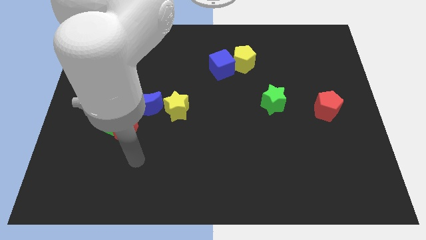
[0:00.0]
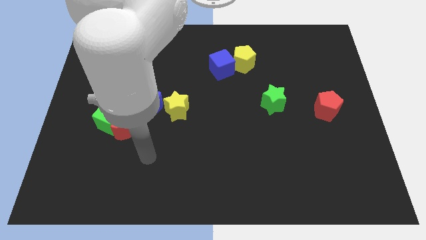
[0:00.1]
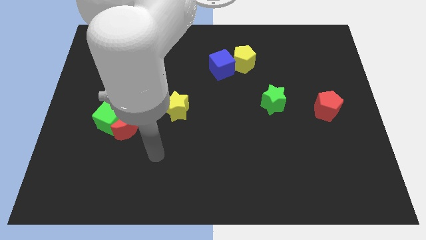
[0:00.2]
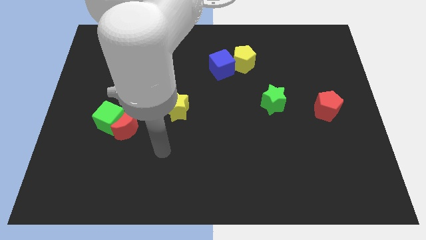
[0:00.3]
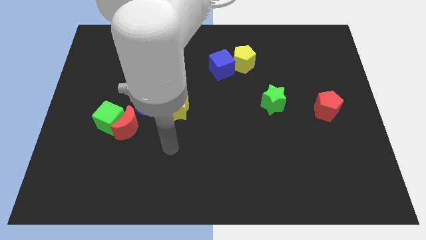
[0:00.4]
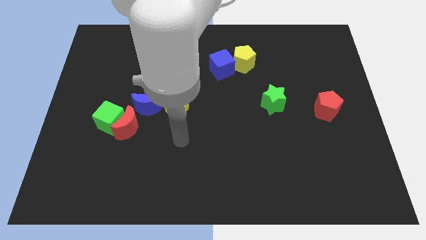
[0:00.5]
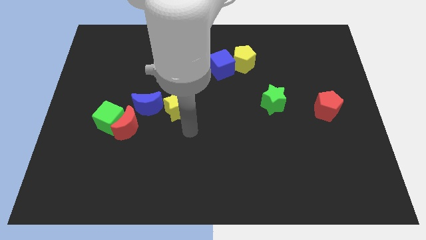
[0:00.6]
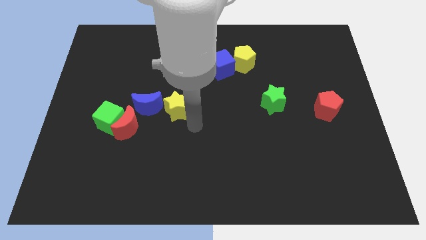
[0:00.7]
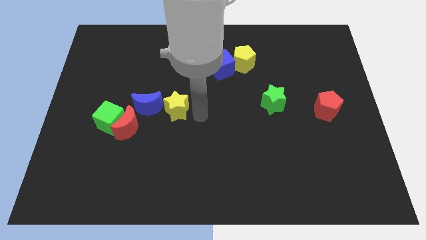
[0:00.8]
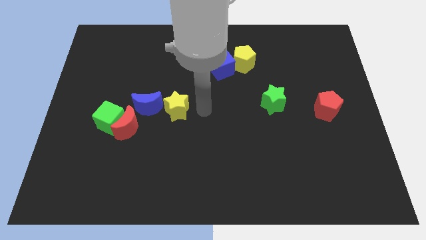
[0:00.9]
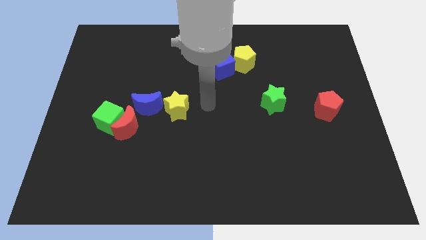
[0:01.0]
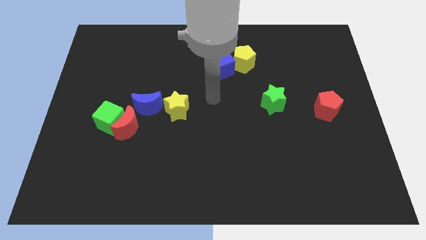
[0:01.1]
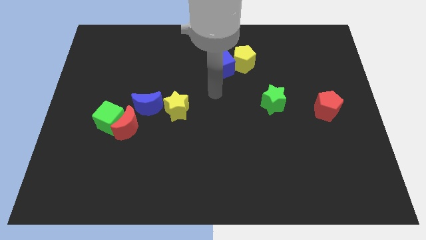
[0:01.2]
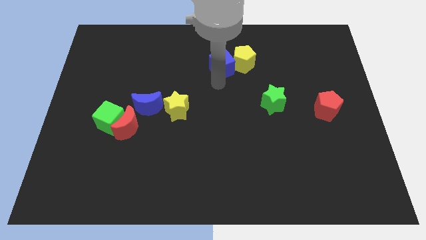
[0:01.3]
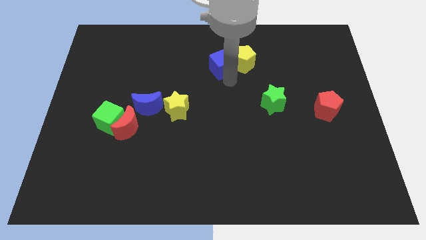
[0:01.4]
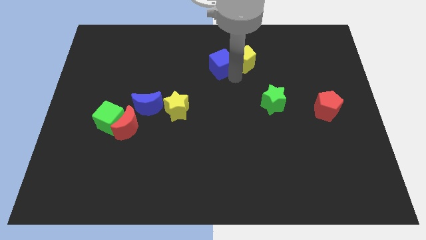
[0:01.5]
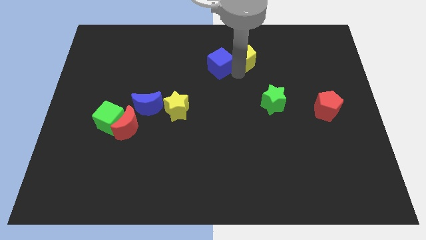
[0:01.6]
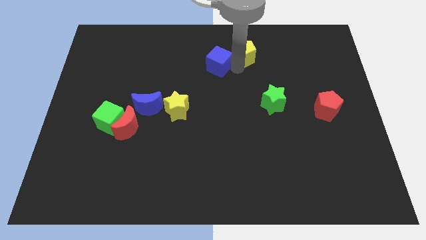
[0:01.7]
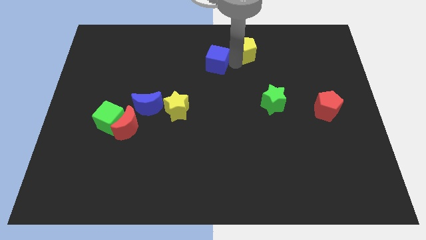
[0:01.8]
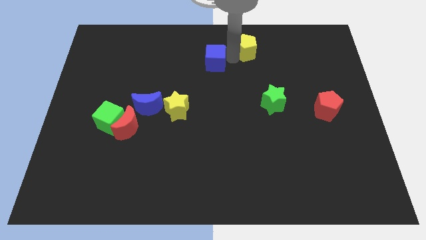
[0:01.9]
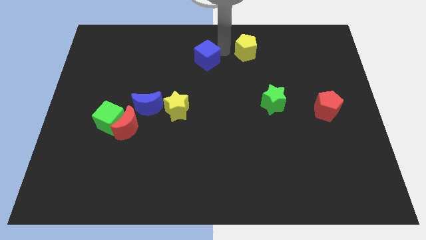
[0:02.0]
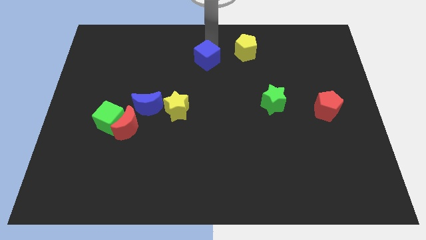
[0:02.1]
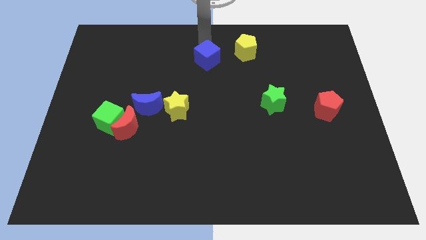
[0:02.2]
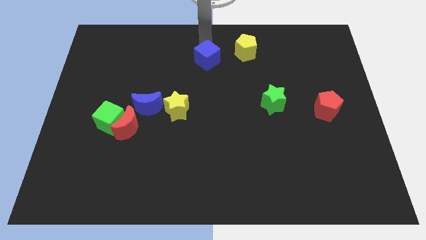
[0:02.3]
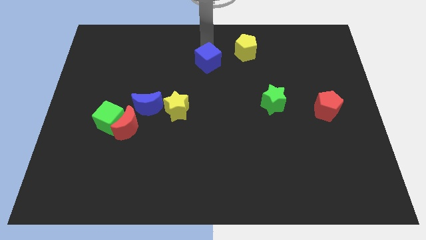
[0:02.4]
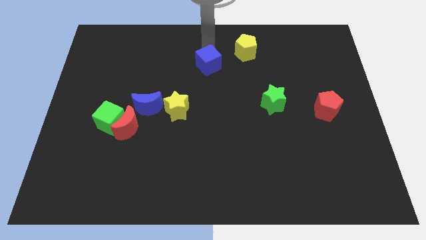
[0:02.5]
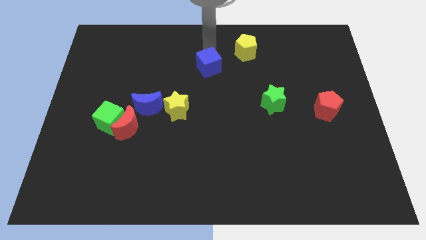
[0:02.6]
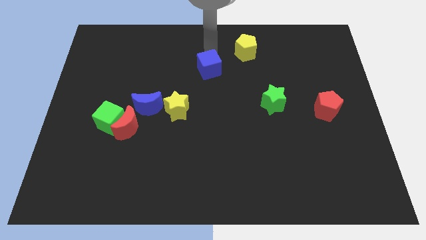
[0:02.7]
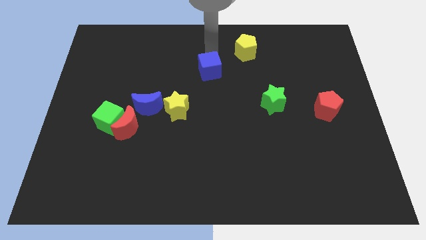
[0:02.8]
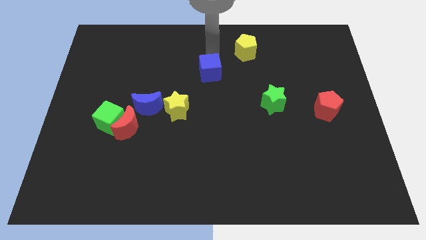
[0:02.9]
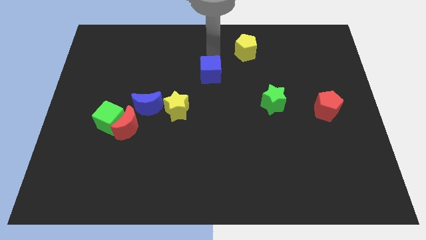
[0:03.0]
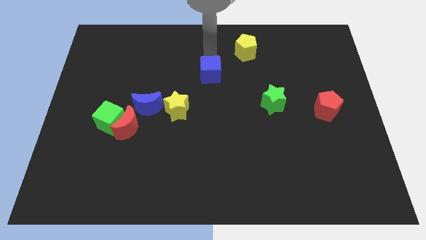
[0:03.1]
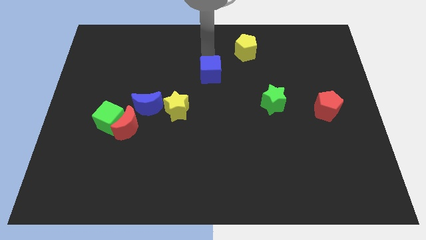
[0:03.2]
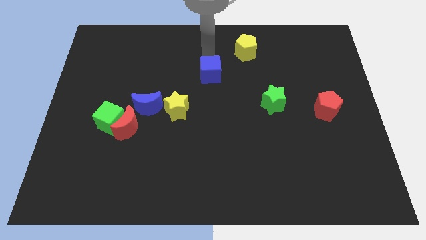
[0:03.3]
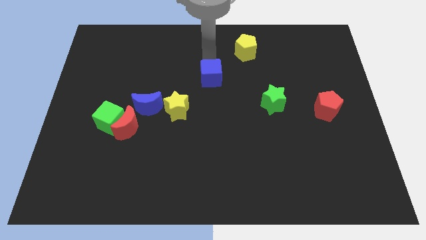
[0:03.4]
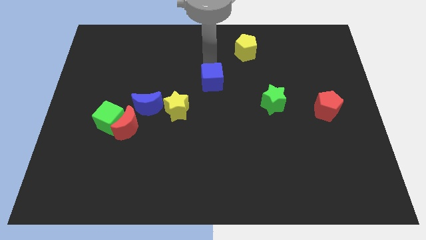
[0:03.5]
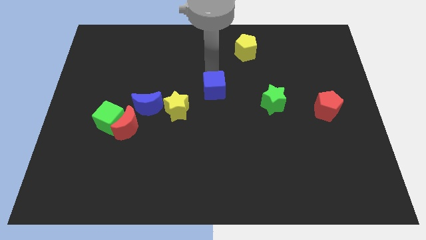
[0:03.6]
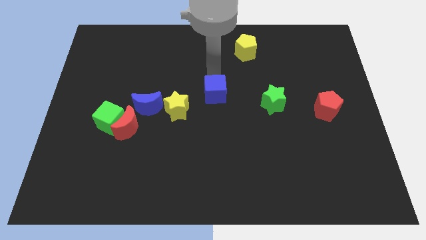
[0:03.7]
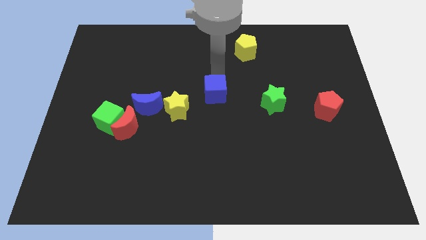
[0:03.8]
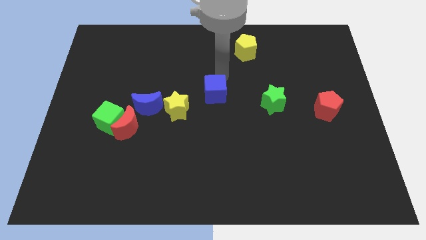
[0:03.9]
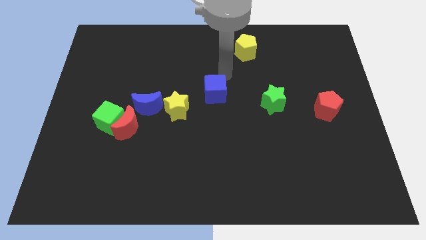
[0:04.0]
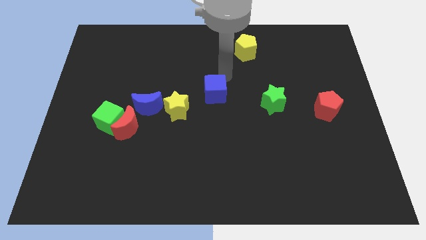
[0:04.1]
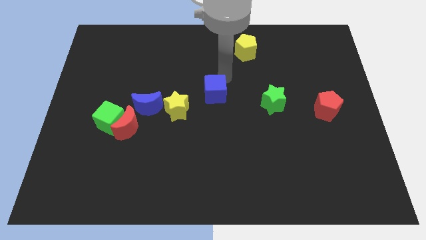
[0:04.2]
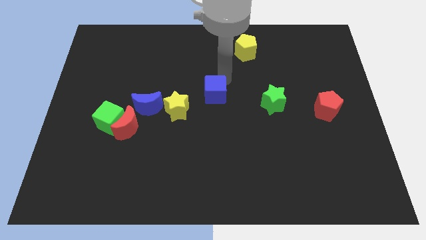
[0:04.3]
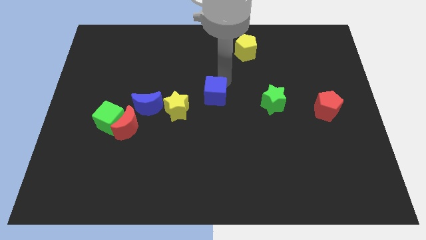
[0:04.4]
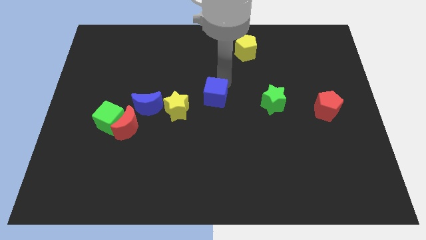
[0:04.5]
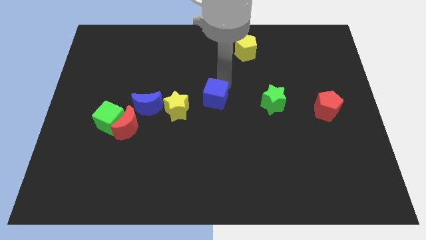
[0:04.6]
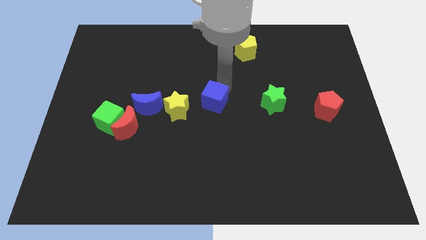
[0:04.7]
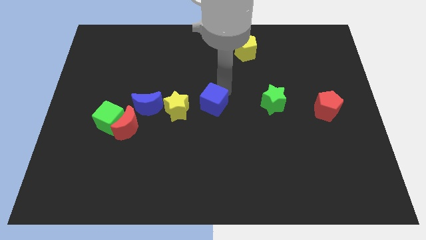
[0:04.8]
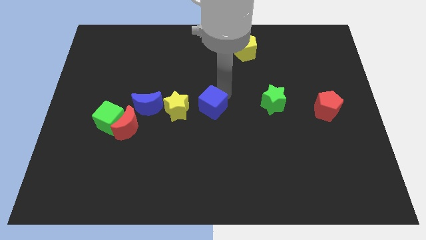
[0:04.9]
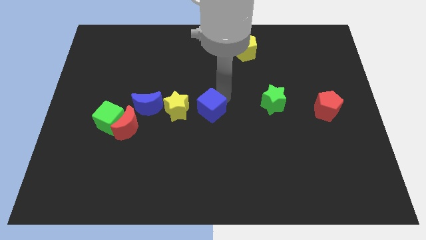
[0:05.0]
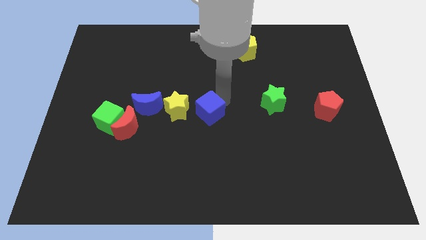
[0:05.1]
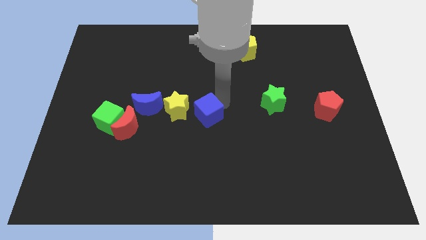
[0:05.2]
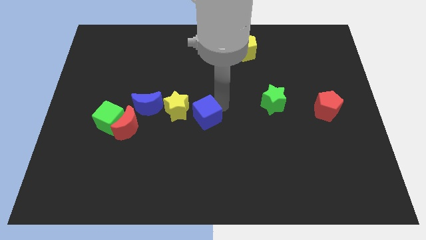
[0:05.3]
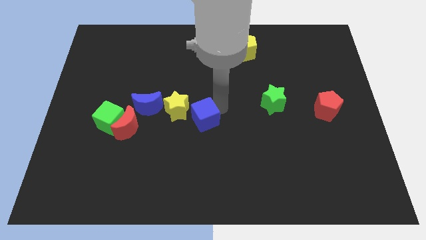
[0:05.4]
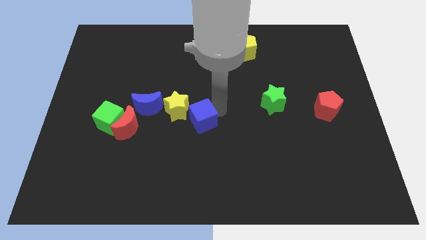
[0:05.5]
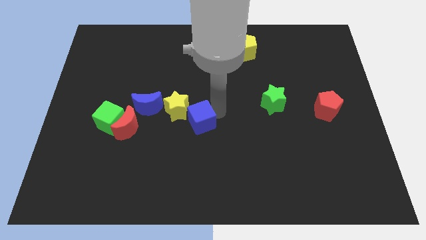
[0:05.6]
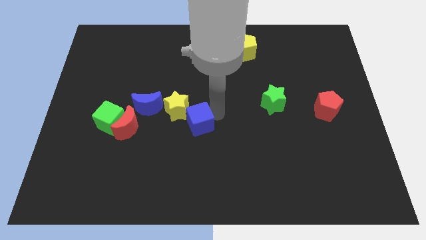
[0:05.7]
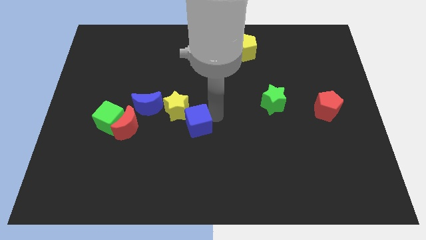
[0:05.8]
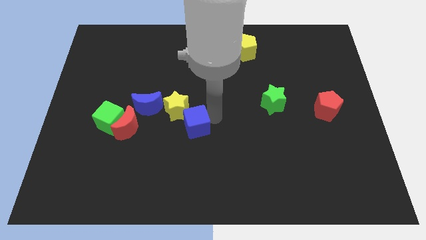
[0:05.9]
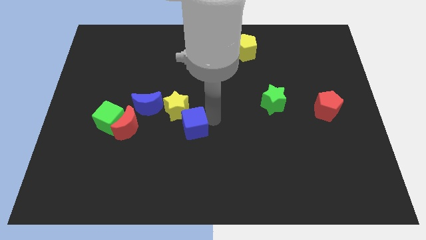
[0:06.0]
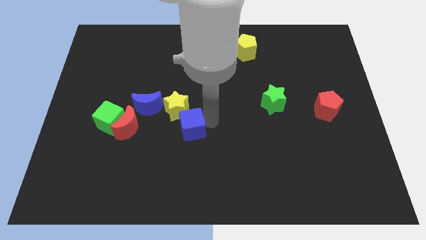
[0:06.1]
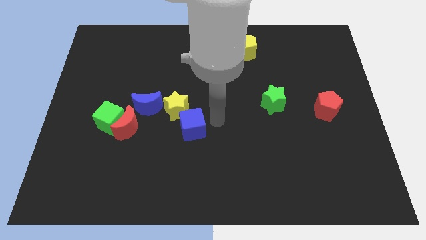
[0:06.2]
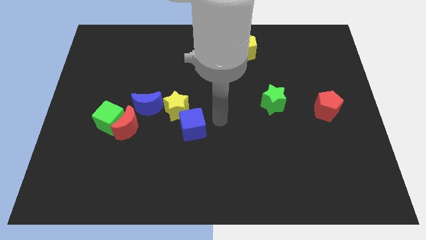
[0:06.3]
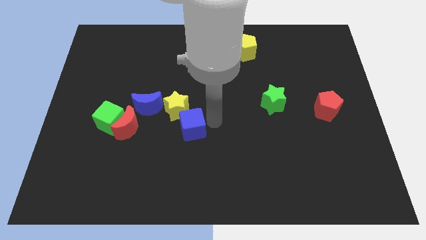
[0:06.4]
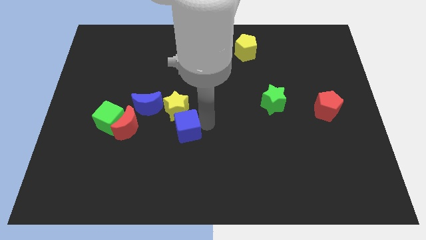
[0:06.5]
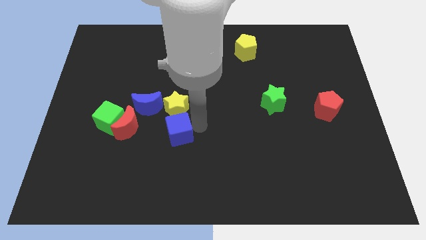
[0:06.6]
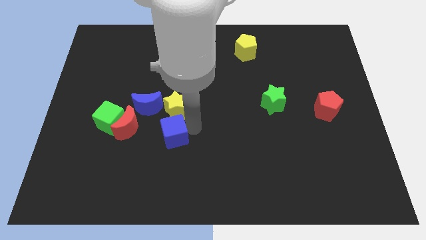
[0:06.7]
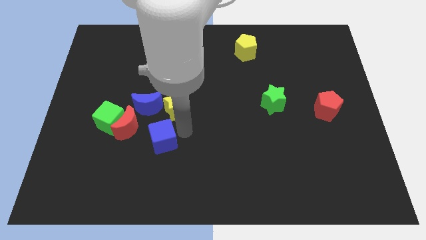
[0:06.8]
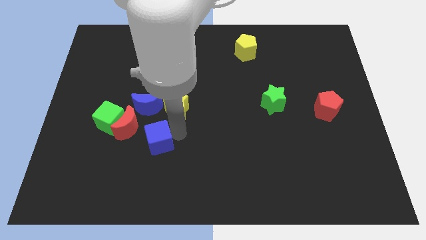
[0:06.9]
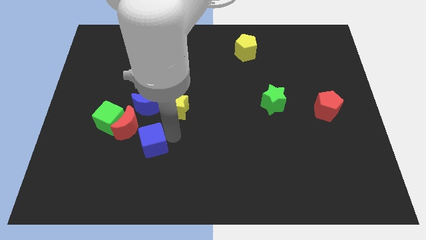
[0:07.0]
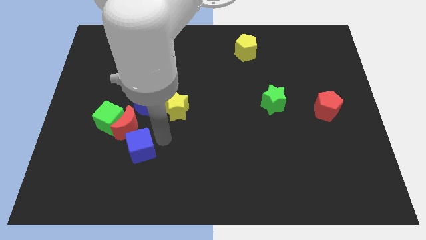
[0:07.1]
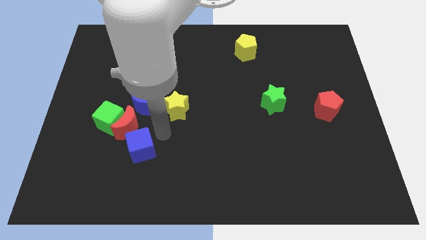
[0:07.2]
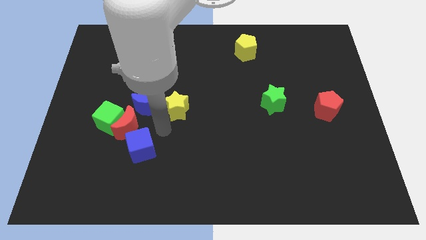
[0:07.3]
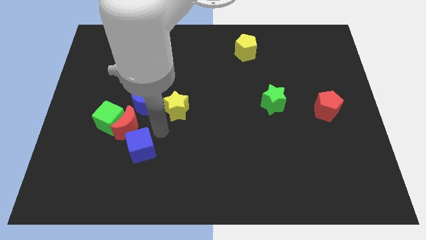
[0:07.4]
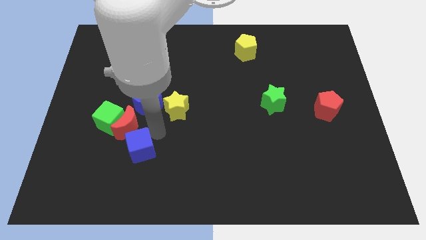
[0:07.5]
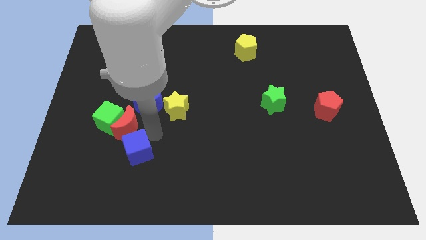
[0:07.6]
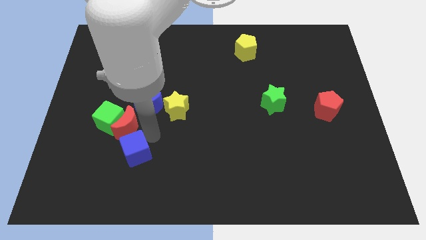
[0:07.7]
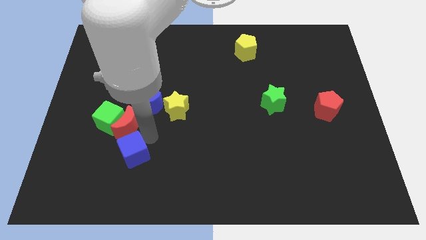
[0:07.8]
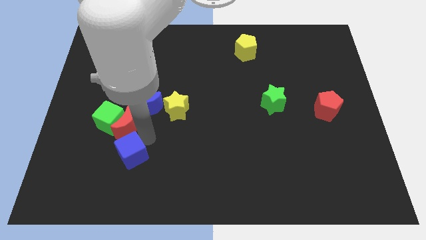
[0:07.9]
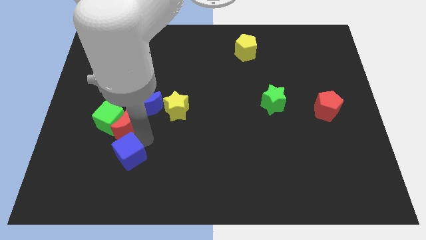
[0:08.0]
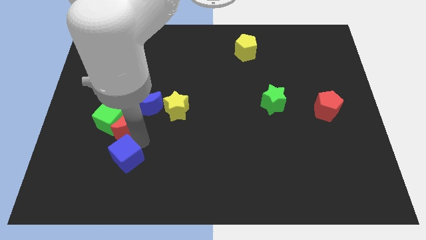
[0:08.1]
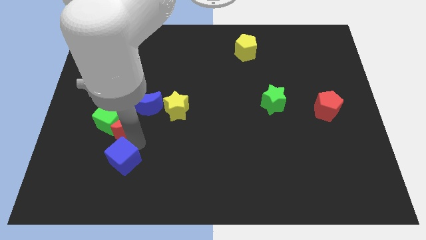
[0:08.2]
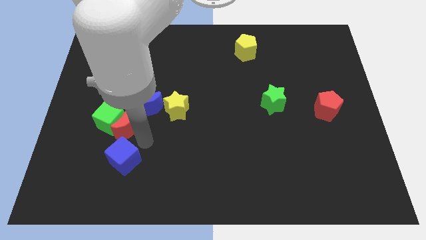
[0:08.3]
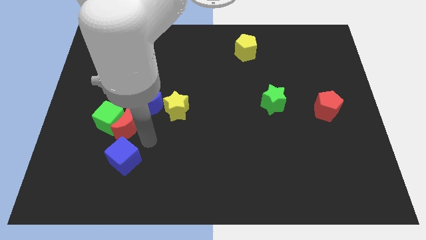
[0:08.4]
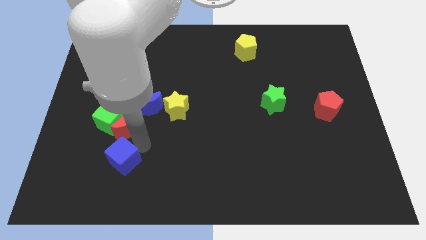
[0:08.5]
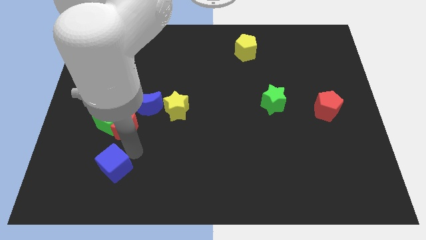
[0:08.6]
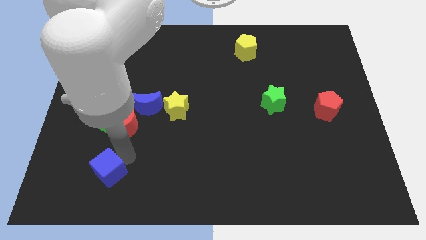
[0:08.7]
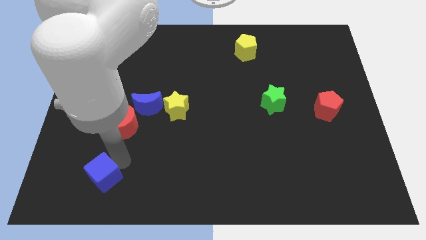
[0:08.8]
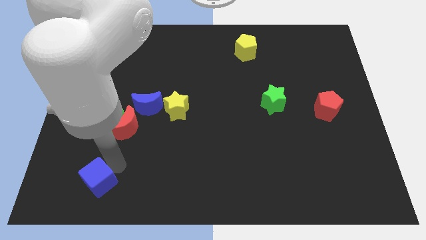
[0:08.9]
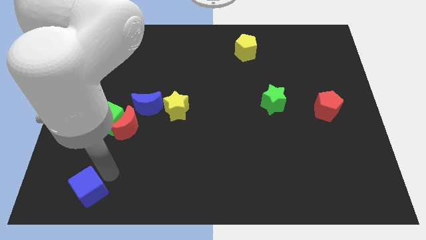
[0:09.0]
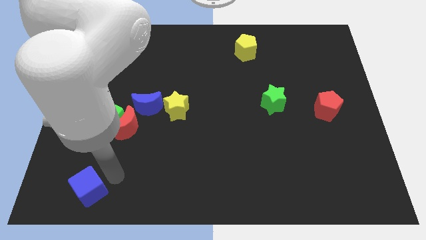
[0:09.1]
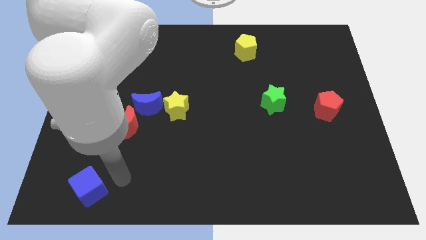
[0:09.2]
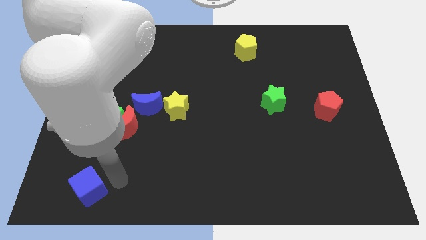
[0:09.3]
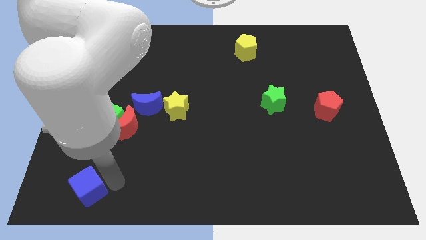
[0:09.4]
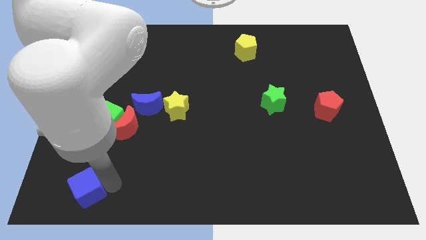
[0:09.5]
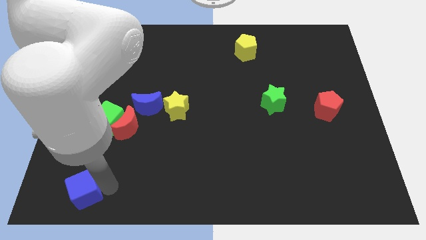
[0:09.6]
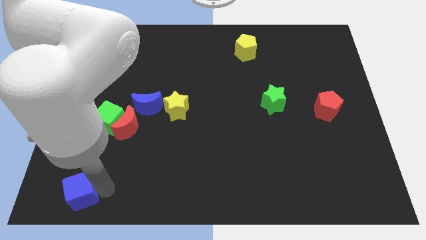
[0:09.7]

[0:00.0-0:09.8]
slide the blue cube to the bottom left
